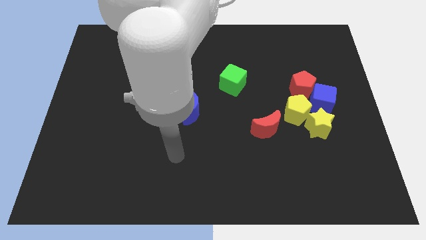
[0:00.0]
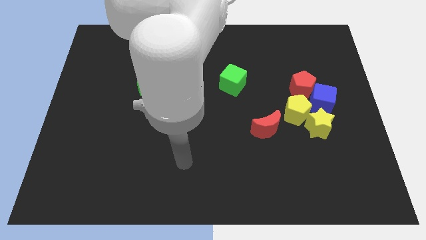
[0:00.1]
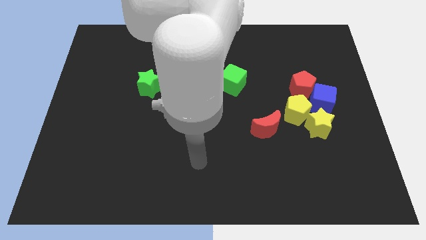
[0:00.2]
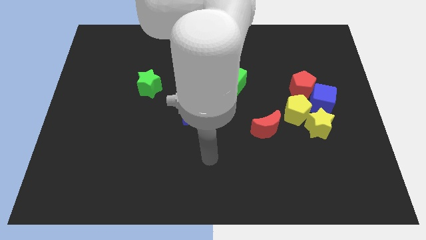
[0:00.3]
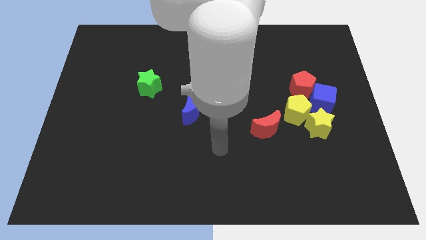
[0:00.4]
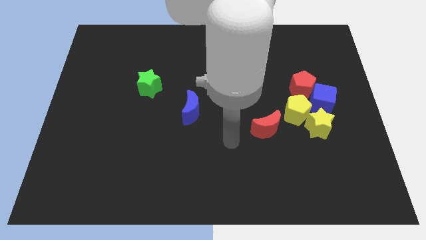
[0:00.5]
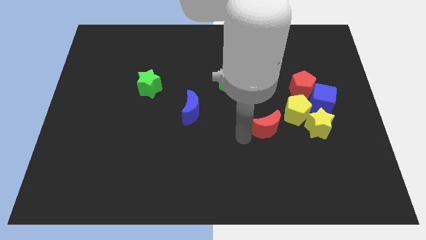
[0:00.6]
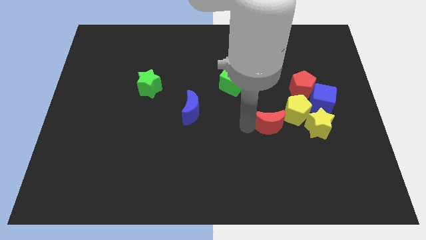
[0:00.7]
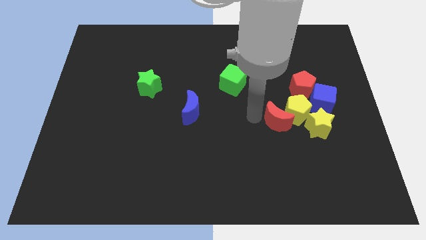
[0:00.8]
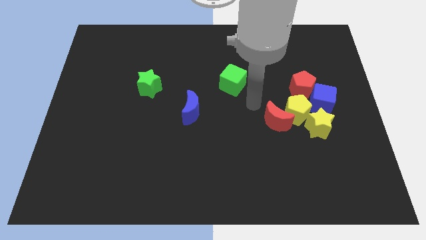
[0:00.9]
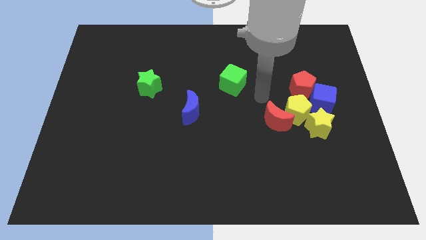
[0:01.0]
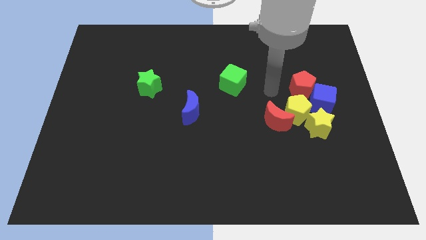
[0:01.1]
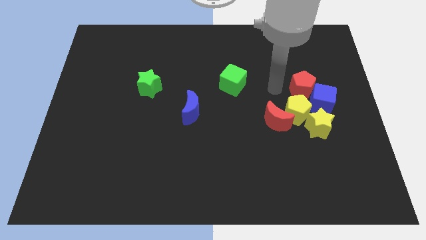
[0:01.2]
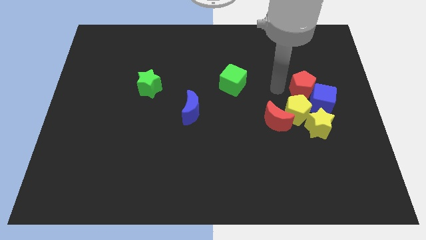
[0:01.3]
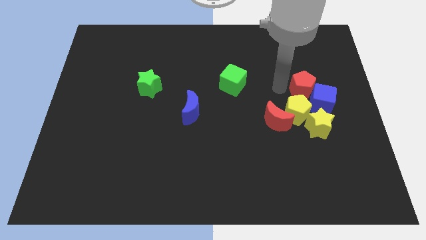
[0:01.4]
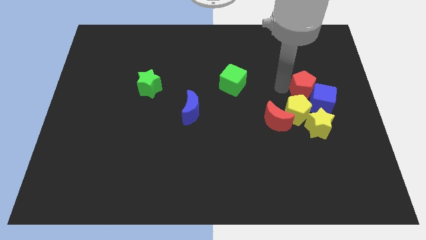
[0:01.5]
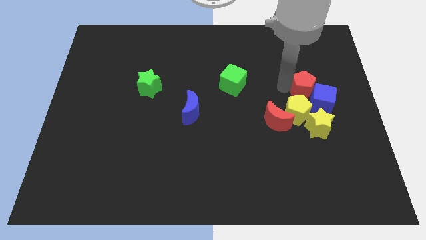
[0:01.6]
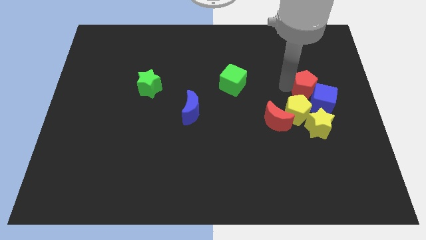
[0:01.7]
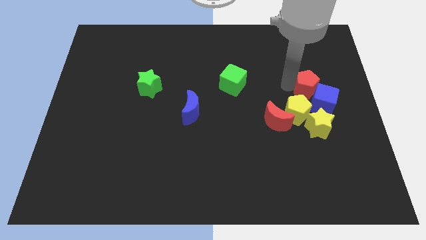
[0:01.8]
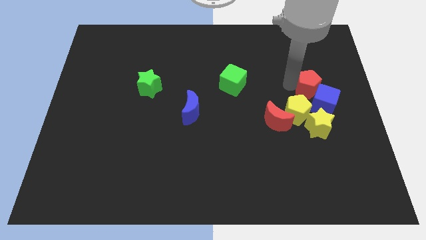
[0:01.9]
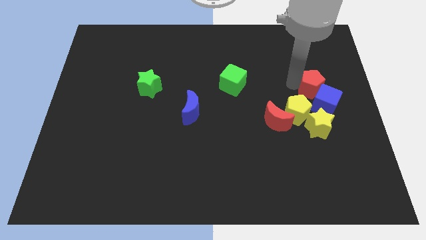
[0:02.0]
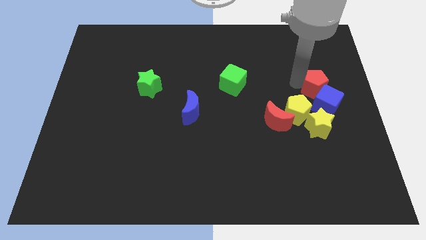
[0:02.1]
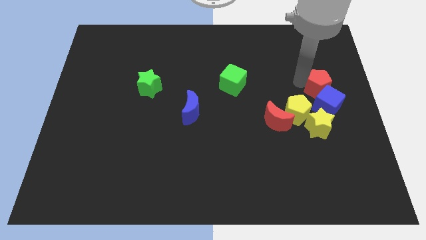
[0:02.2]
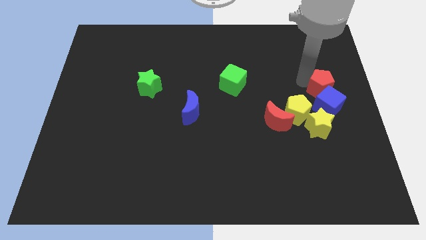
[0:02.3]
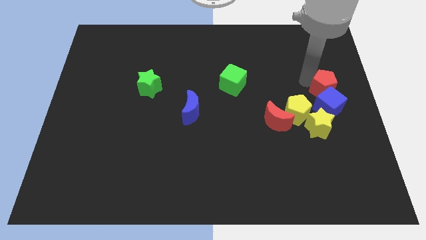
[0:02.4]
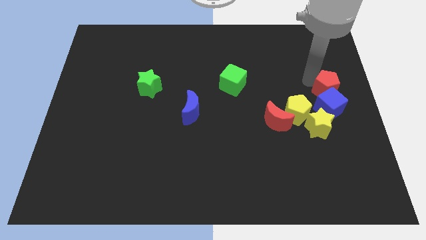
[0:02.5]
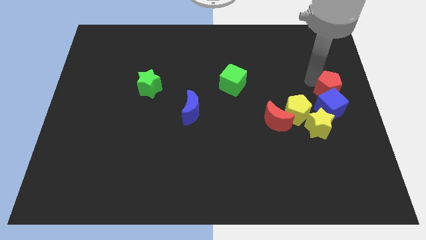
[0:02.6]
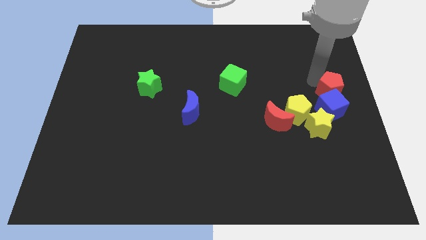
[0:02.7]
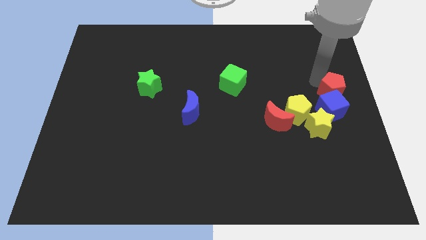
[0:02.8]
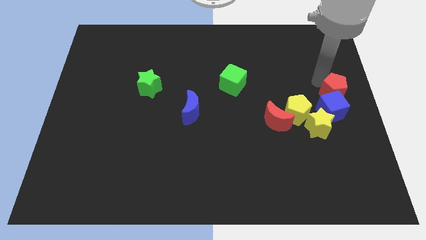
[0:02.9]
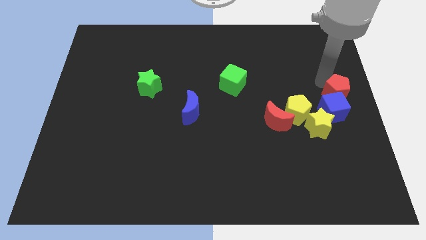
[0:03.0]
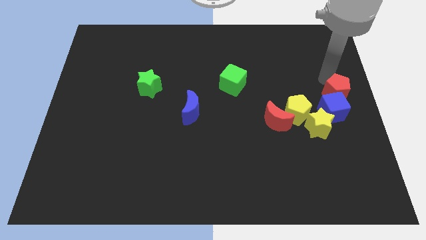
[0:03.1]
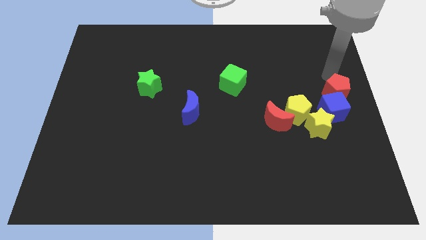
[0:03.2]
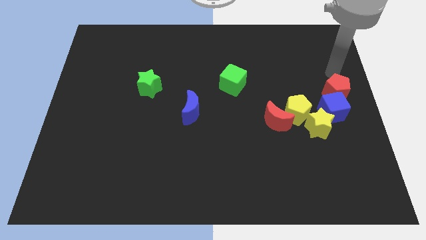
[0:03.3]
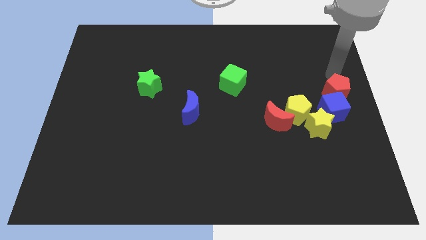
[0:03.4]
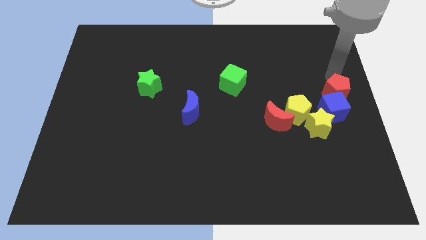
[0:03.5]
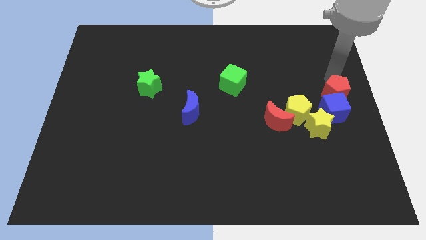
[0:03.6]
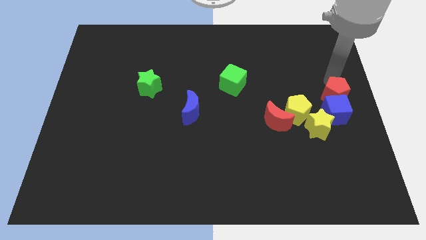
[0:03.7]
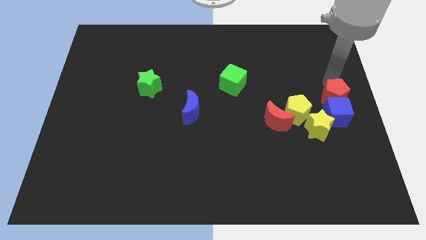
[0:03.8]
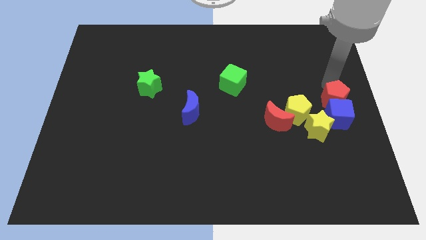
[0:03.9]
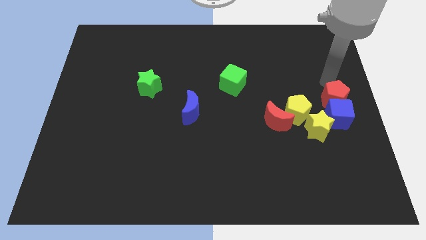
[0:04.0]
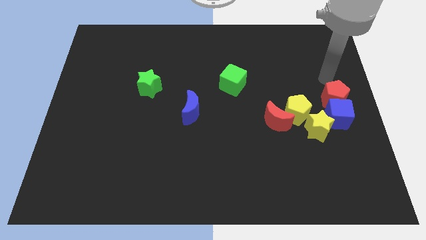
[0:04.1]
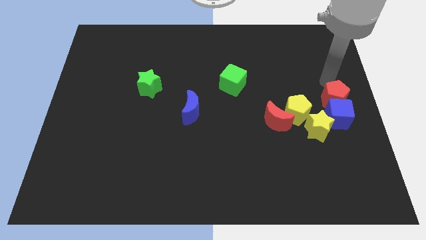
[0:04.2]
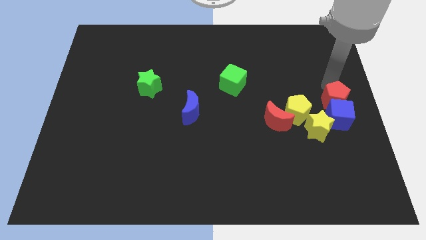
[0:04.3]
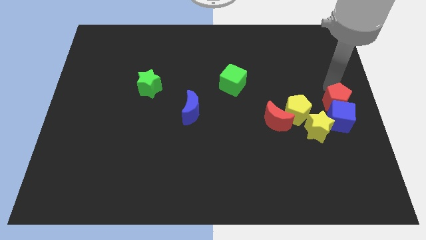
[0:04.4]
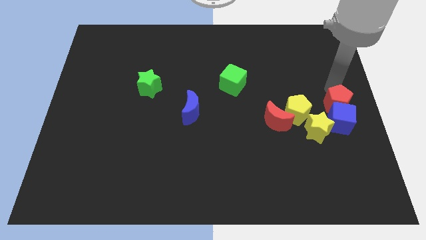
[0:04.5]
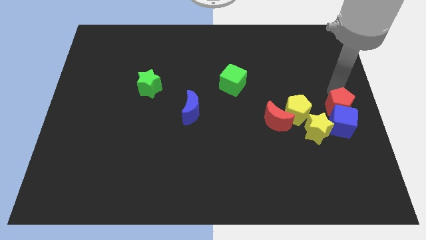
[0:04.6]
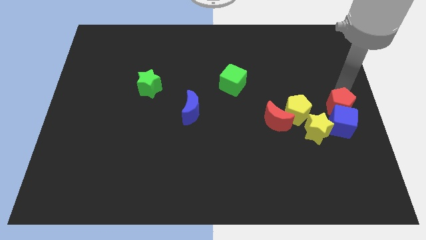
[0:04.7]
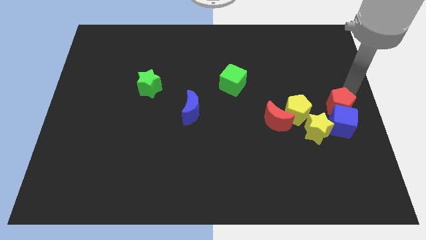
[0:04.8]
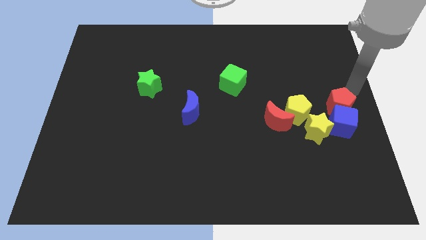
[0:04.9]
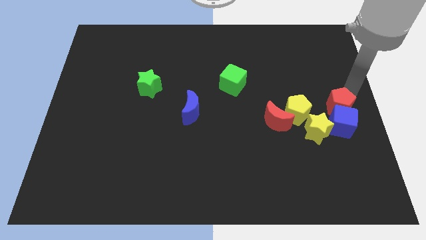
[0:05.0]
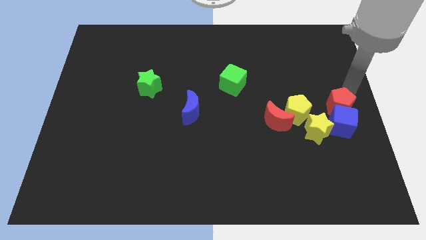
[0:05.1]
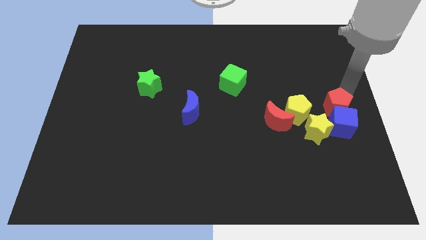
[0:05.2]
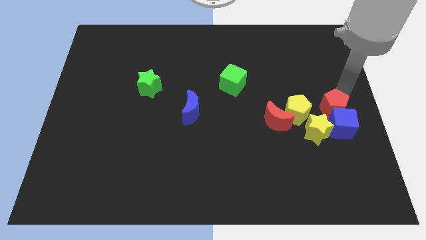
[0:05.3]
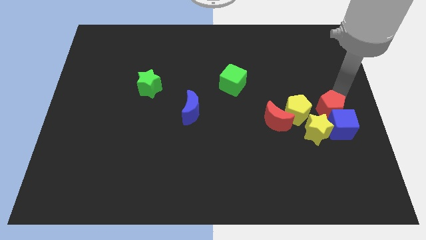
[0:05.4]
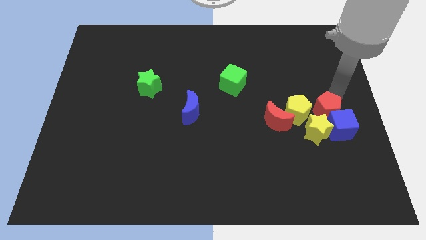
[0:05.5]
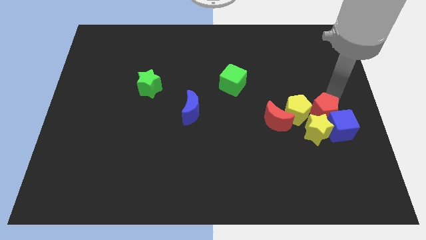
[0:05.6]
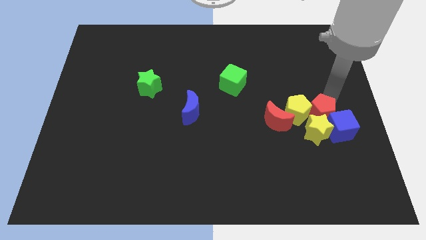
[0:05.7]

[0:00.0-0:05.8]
push the red pentagon close to the yellow star

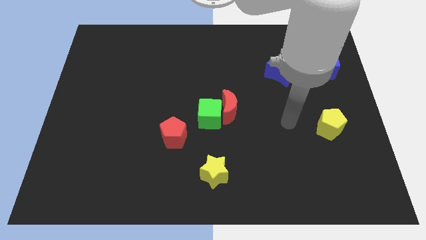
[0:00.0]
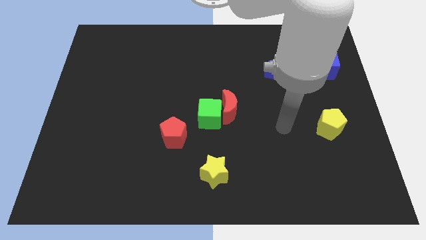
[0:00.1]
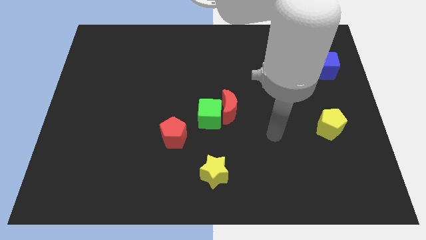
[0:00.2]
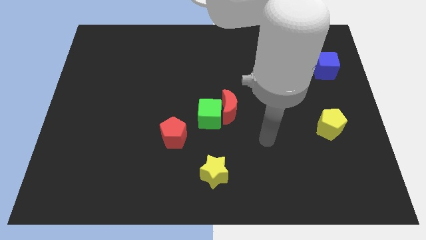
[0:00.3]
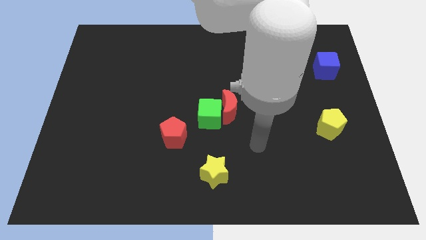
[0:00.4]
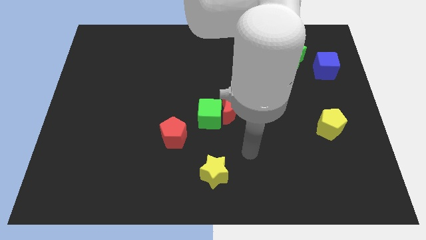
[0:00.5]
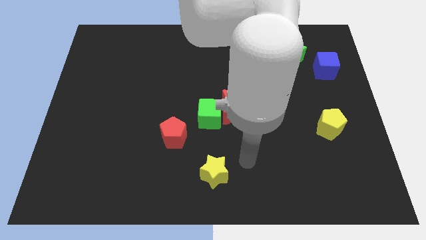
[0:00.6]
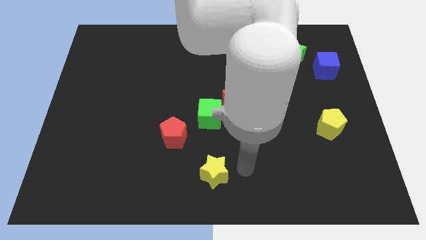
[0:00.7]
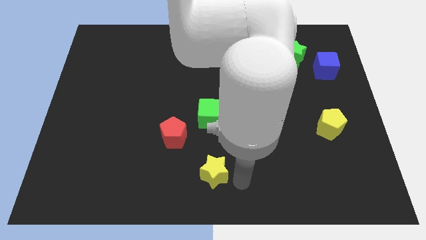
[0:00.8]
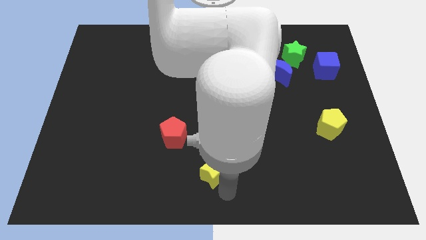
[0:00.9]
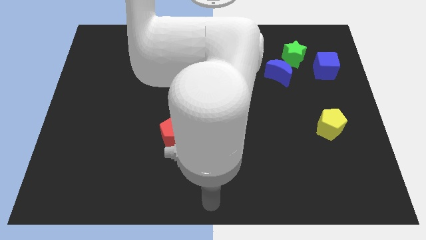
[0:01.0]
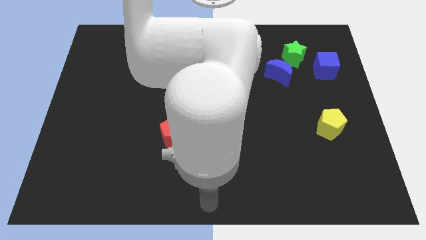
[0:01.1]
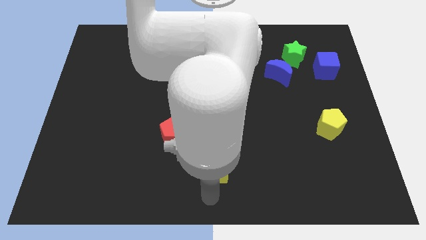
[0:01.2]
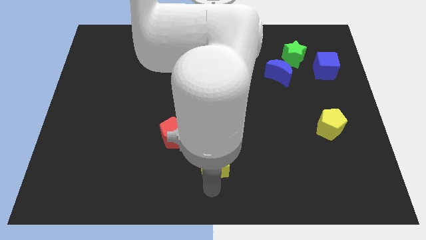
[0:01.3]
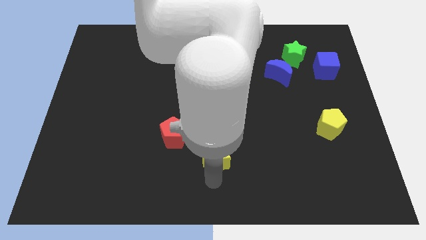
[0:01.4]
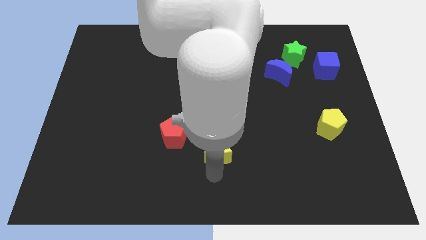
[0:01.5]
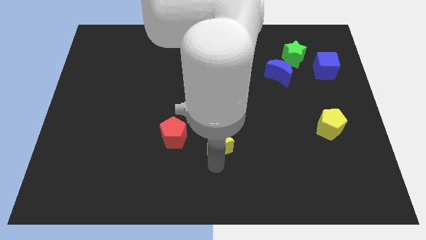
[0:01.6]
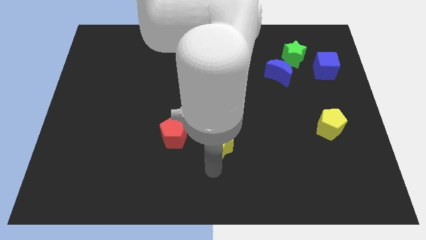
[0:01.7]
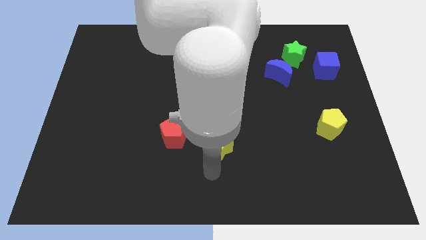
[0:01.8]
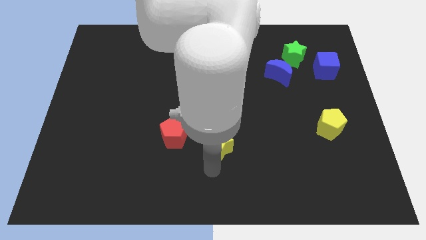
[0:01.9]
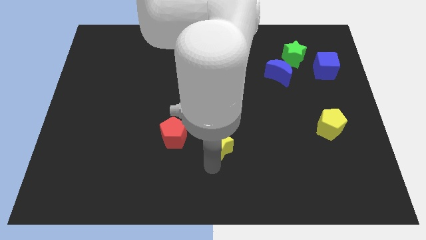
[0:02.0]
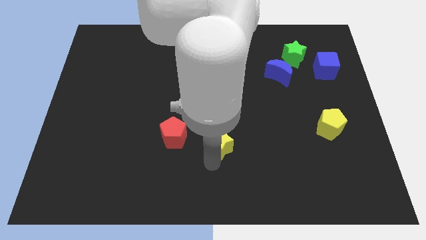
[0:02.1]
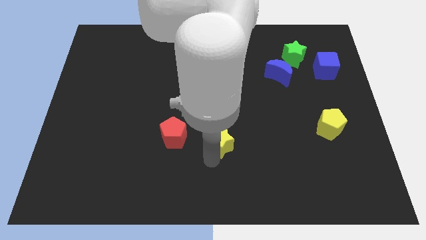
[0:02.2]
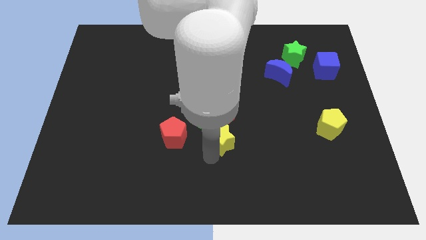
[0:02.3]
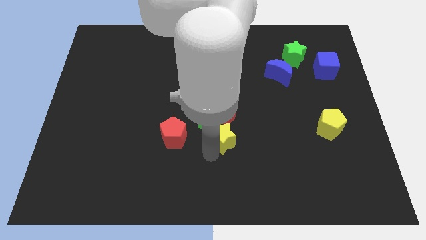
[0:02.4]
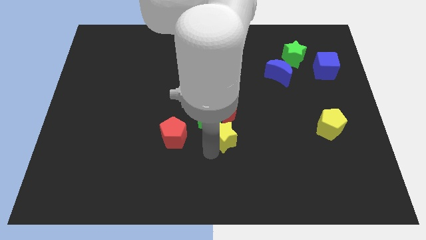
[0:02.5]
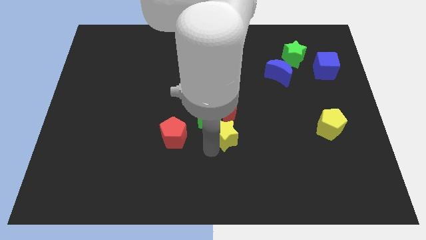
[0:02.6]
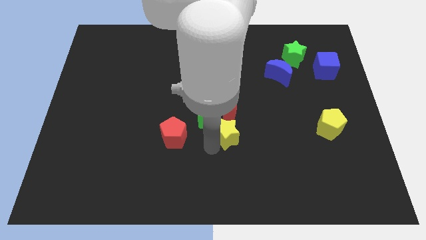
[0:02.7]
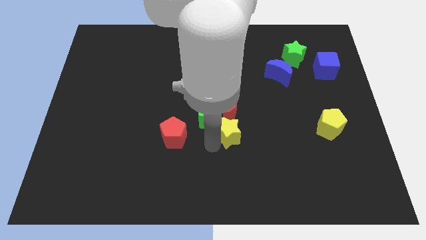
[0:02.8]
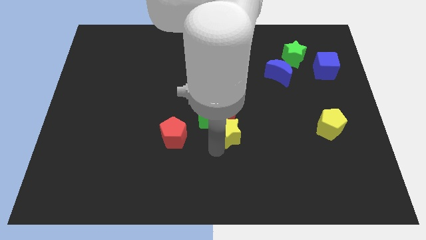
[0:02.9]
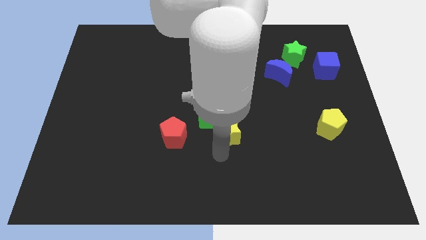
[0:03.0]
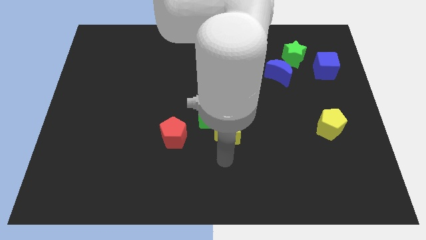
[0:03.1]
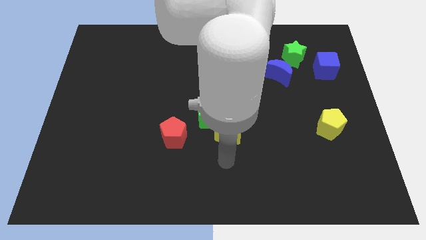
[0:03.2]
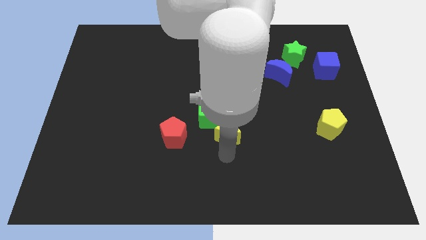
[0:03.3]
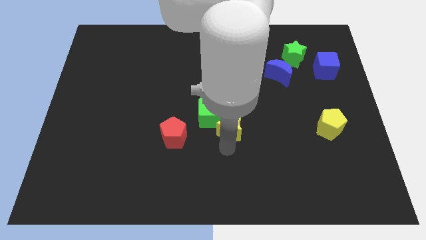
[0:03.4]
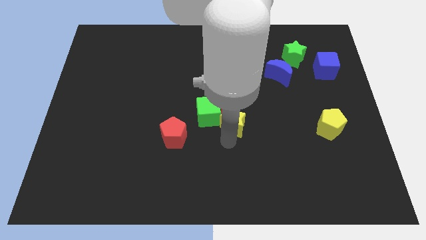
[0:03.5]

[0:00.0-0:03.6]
push the yellow star next to the red moon
